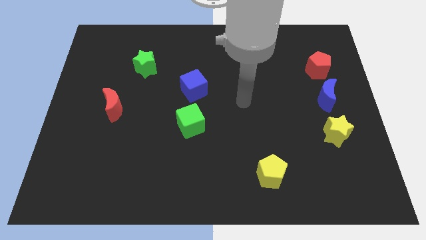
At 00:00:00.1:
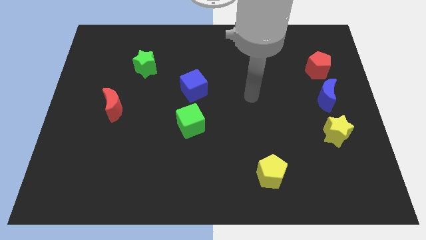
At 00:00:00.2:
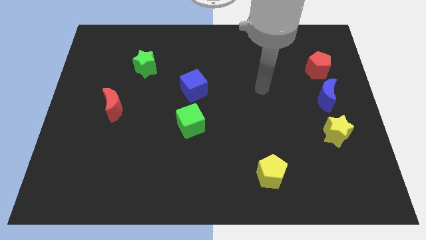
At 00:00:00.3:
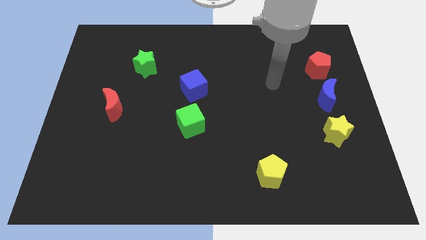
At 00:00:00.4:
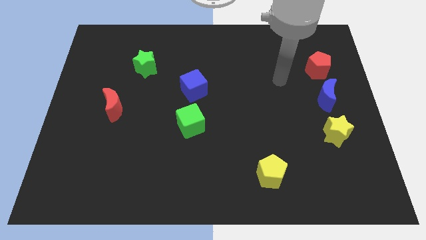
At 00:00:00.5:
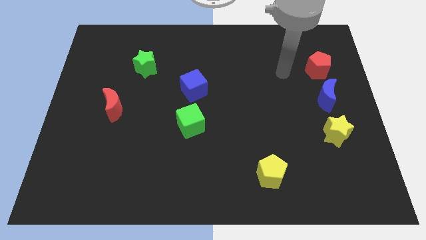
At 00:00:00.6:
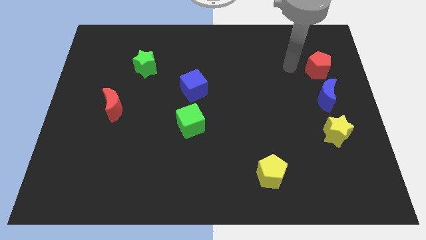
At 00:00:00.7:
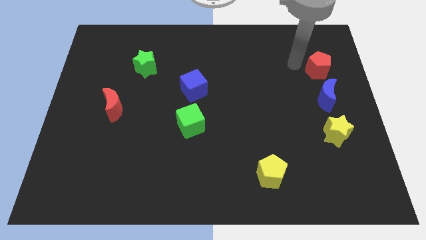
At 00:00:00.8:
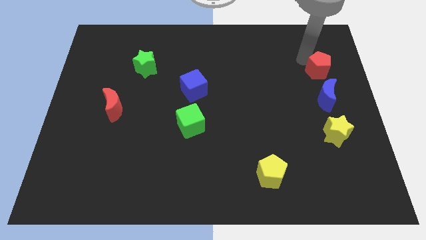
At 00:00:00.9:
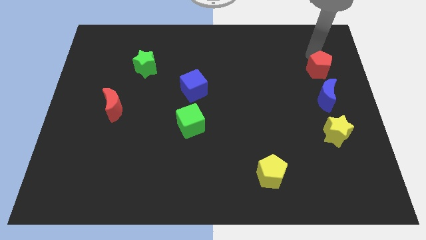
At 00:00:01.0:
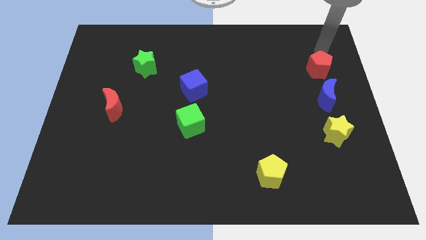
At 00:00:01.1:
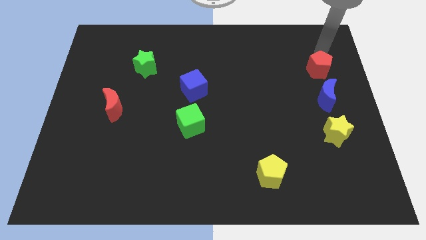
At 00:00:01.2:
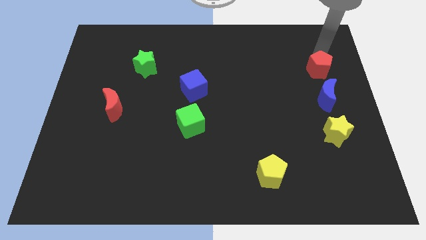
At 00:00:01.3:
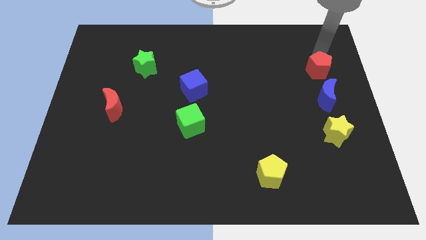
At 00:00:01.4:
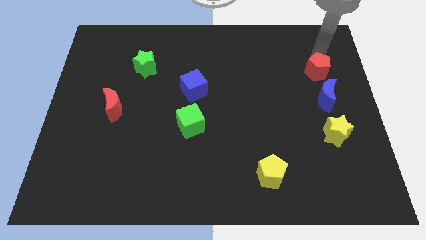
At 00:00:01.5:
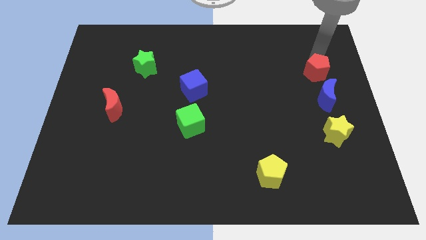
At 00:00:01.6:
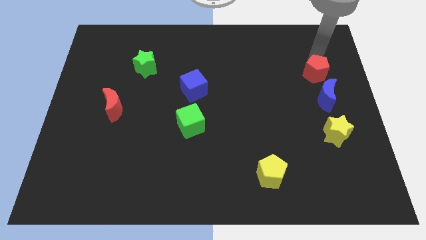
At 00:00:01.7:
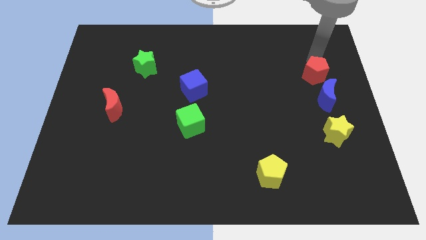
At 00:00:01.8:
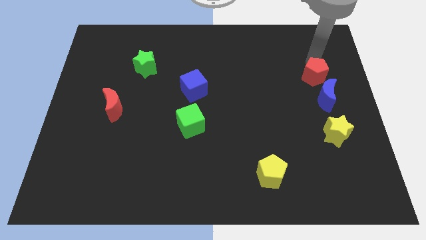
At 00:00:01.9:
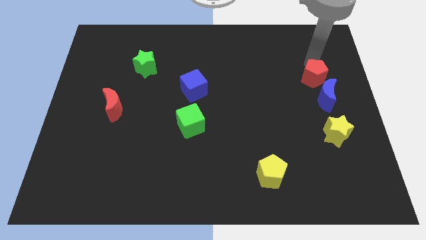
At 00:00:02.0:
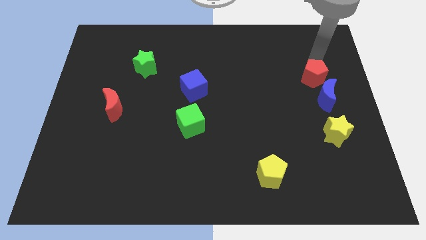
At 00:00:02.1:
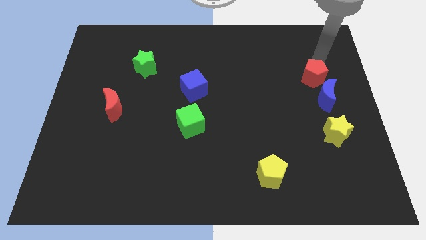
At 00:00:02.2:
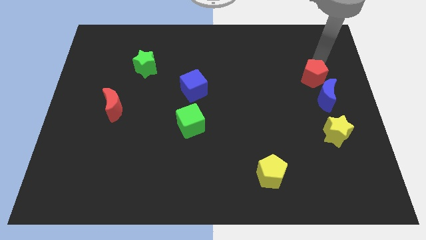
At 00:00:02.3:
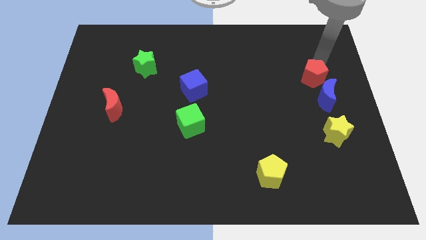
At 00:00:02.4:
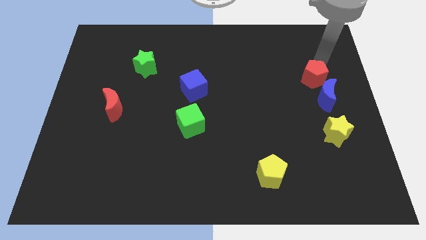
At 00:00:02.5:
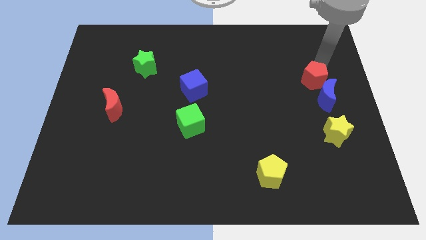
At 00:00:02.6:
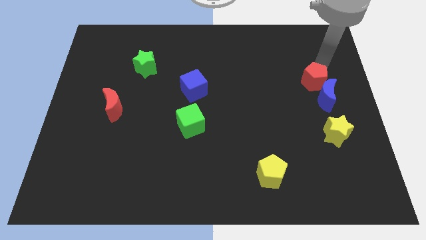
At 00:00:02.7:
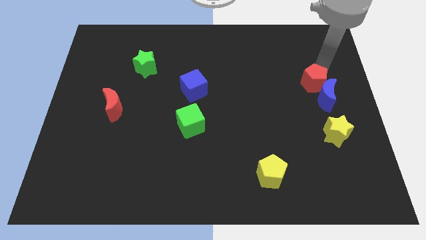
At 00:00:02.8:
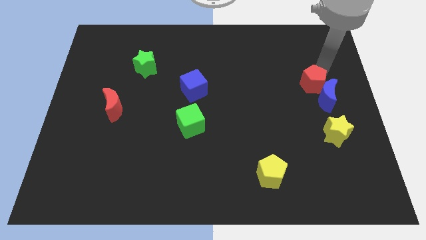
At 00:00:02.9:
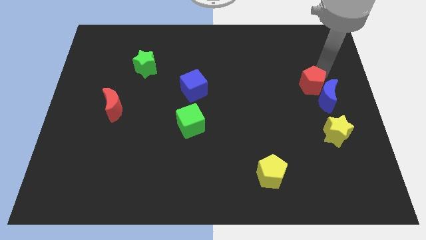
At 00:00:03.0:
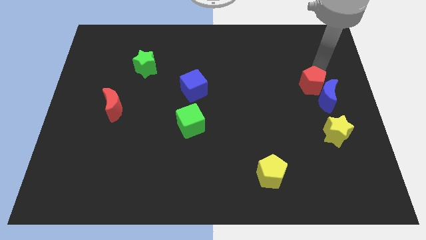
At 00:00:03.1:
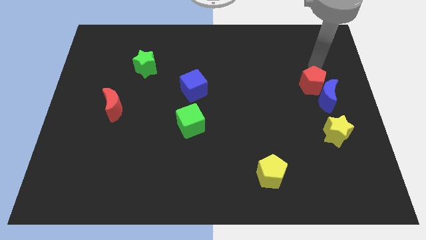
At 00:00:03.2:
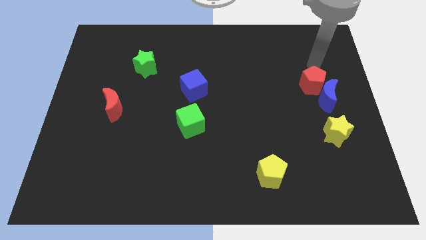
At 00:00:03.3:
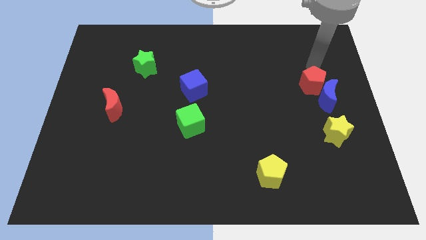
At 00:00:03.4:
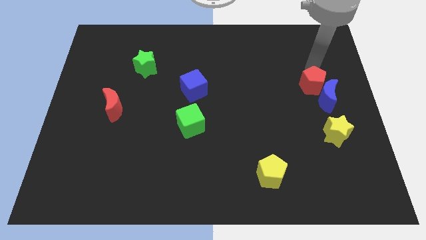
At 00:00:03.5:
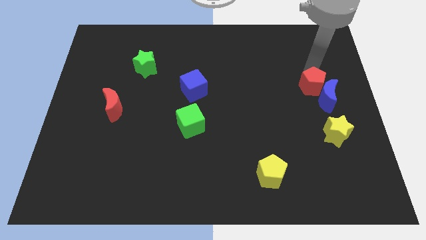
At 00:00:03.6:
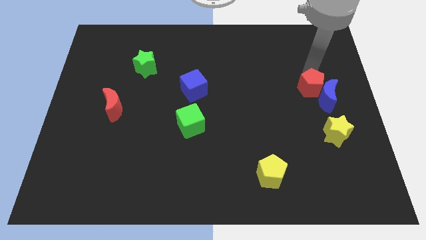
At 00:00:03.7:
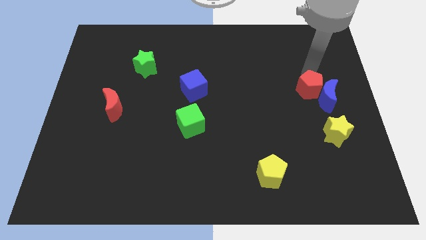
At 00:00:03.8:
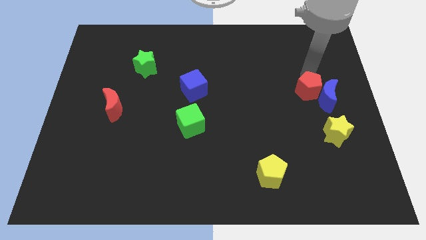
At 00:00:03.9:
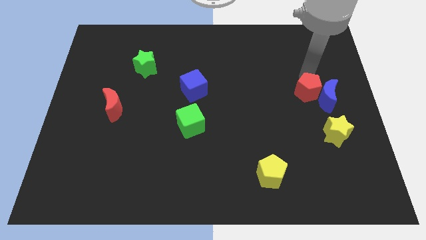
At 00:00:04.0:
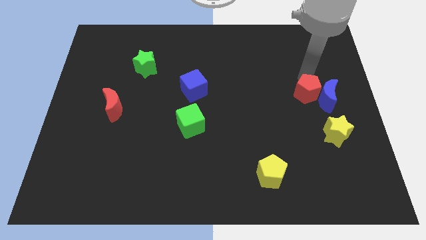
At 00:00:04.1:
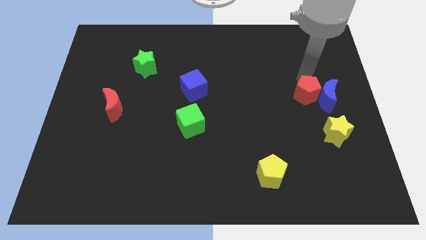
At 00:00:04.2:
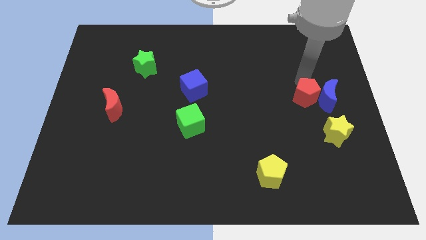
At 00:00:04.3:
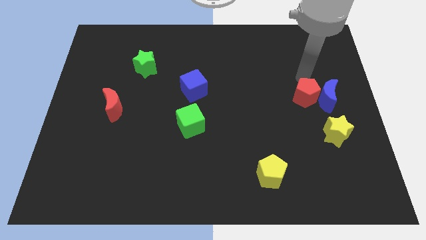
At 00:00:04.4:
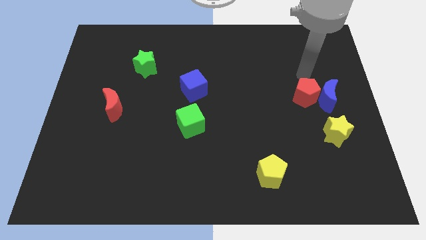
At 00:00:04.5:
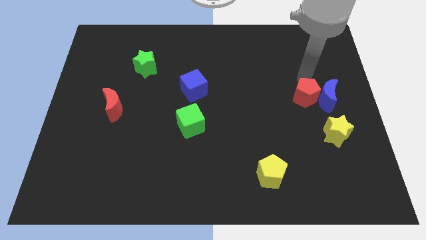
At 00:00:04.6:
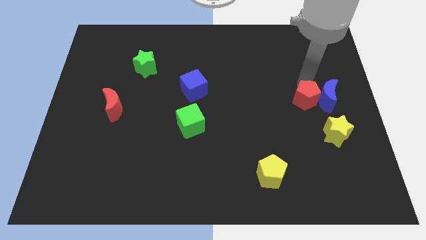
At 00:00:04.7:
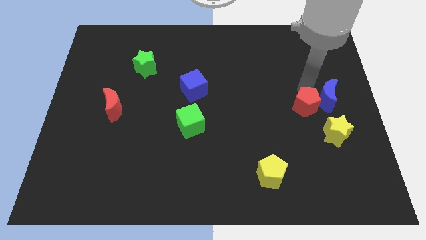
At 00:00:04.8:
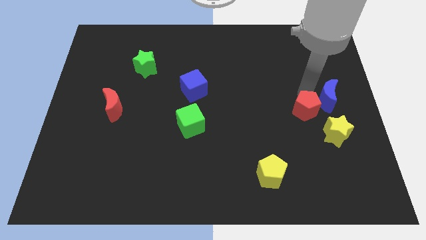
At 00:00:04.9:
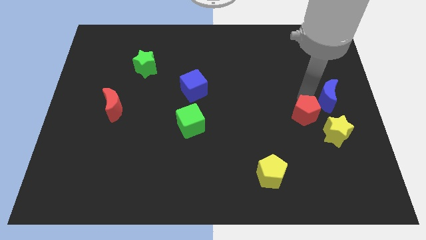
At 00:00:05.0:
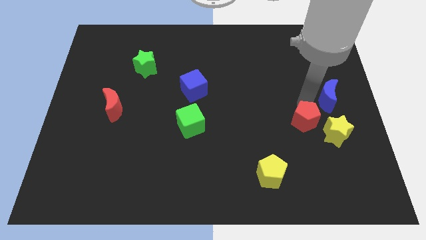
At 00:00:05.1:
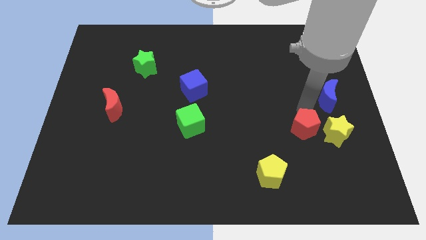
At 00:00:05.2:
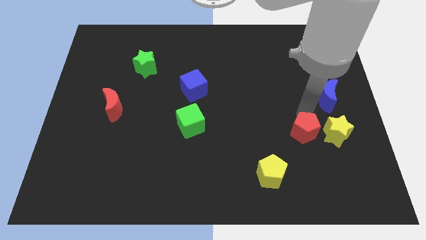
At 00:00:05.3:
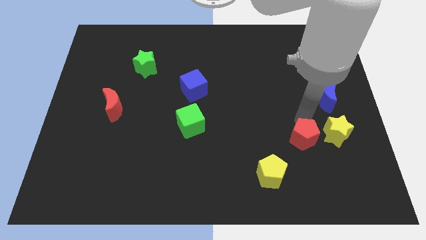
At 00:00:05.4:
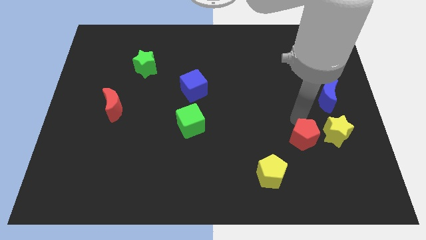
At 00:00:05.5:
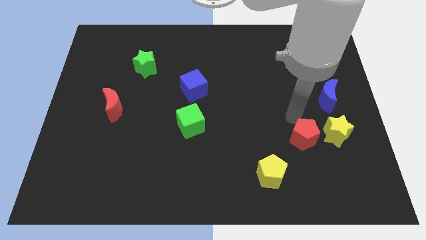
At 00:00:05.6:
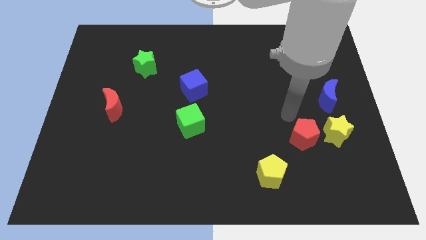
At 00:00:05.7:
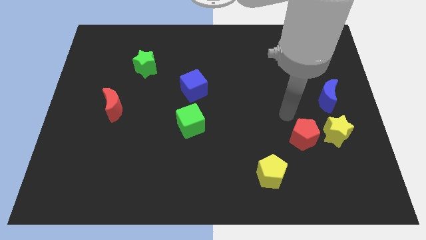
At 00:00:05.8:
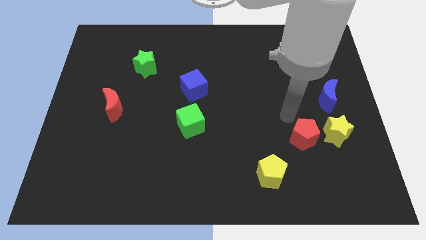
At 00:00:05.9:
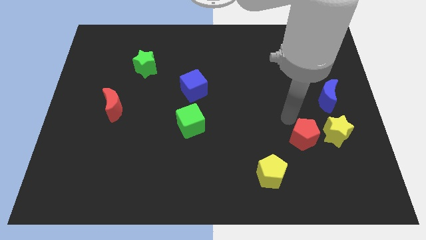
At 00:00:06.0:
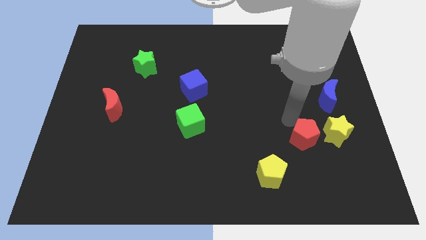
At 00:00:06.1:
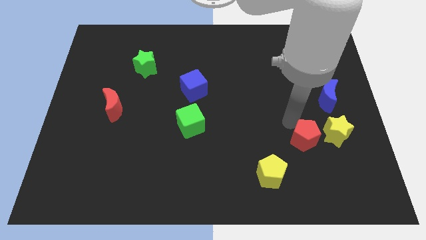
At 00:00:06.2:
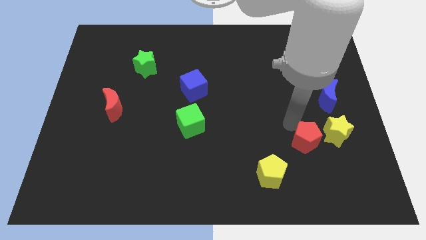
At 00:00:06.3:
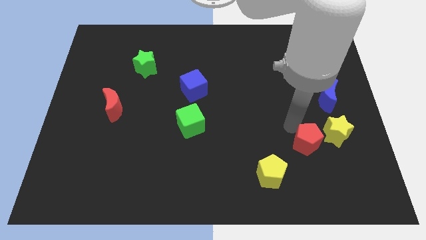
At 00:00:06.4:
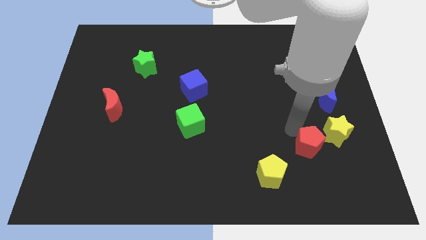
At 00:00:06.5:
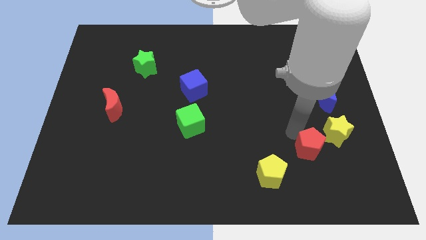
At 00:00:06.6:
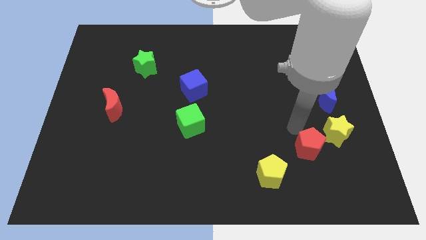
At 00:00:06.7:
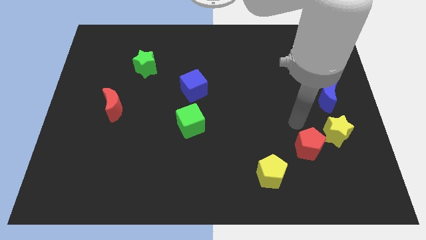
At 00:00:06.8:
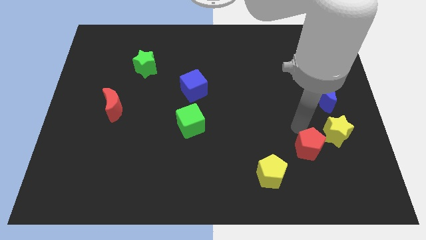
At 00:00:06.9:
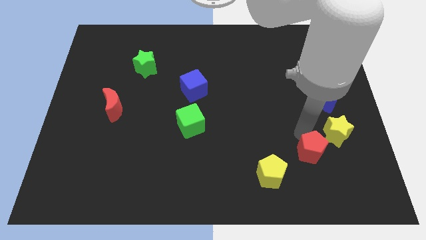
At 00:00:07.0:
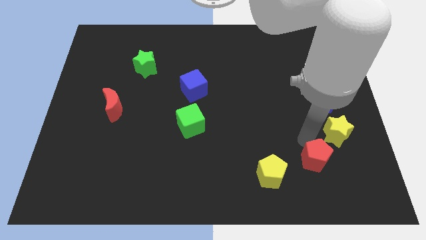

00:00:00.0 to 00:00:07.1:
move the red pentagon to the right of the yellow pentagon
